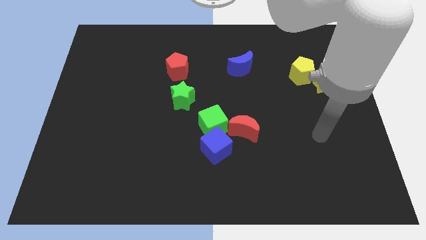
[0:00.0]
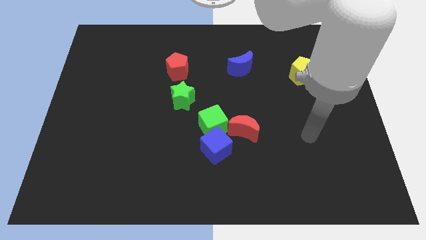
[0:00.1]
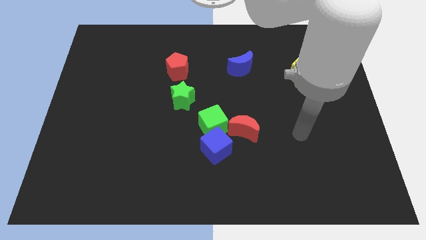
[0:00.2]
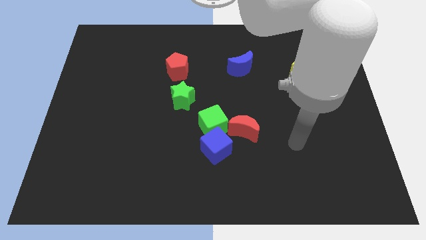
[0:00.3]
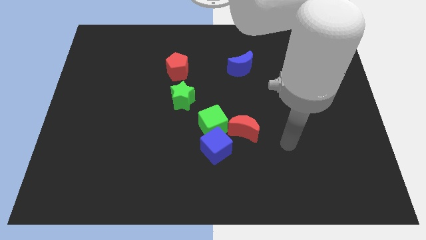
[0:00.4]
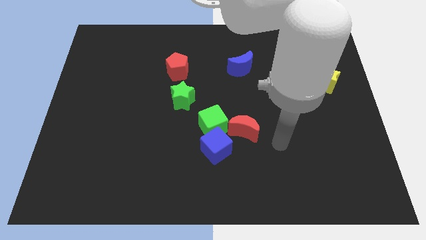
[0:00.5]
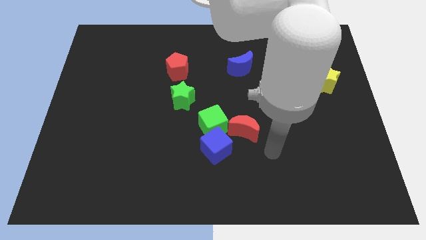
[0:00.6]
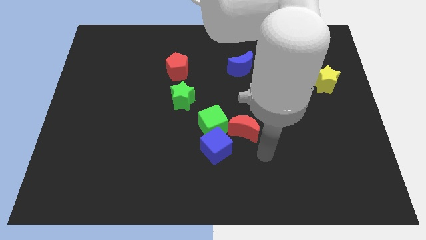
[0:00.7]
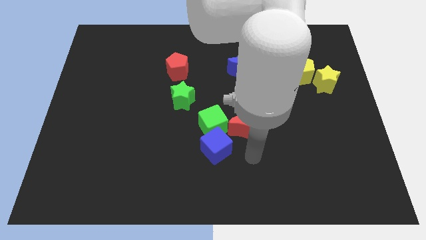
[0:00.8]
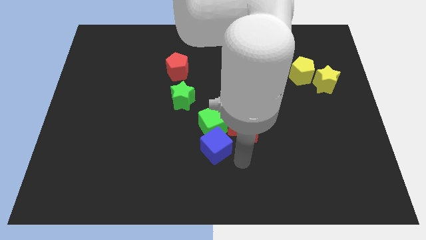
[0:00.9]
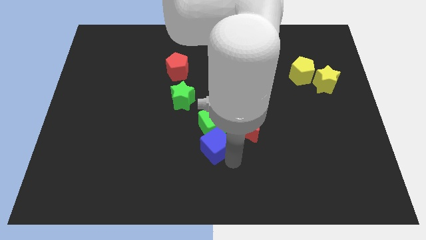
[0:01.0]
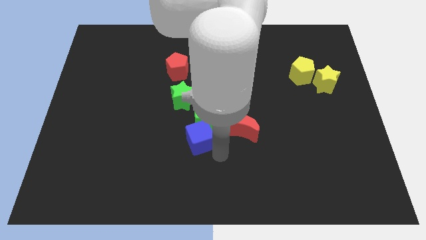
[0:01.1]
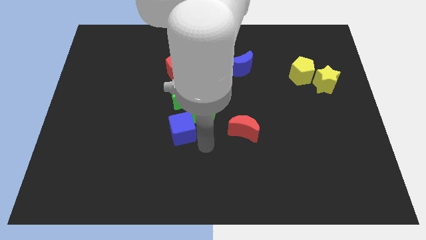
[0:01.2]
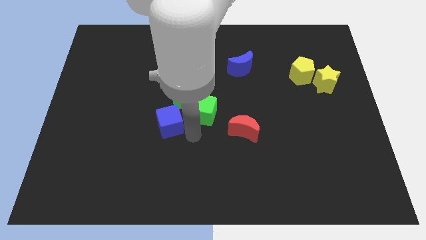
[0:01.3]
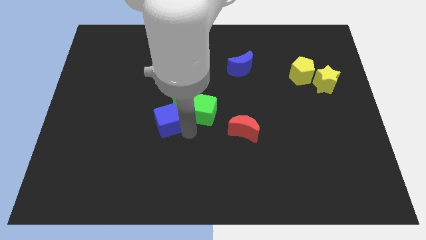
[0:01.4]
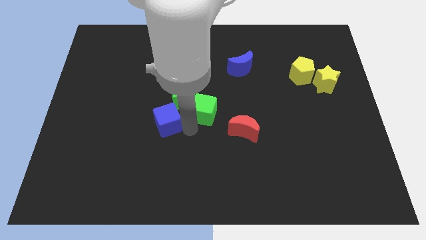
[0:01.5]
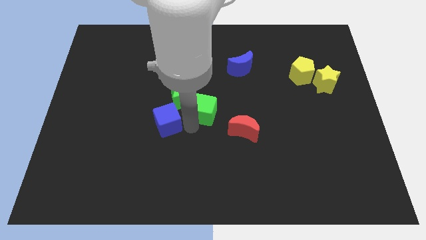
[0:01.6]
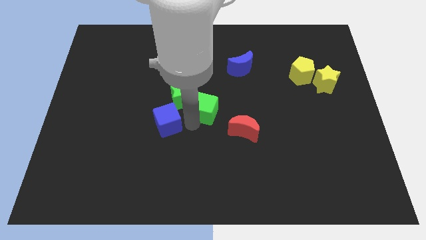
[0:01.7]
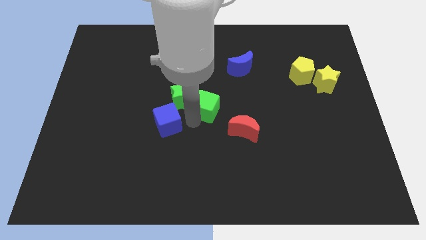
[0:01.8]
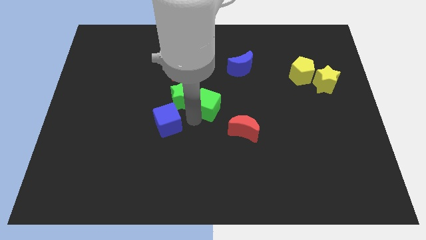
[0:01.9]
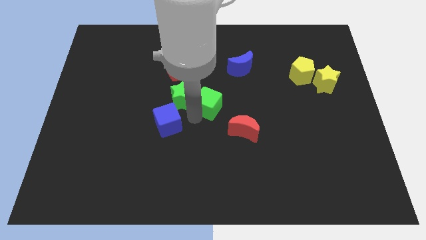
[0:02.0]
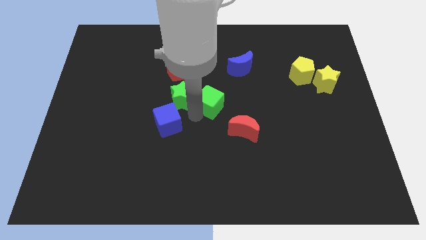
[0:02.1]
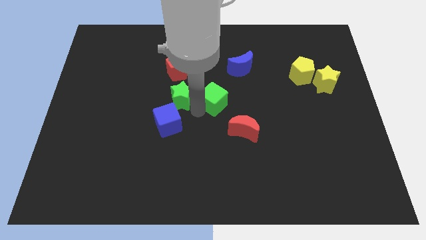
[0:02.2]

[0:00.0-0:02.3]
slightly move the green cube upwards

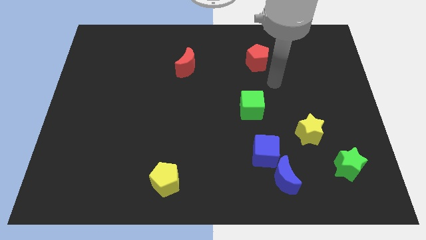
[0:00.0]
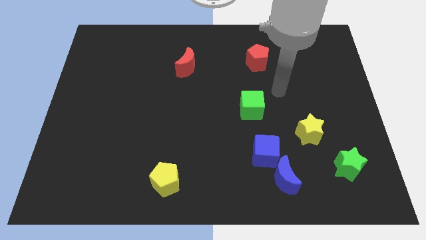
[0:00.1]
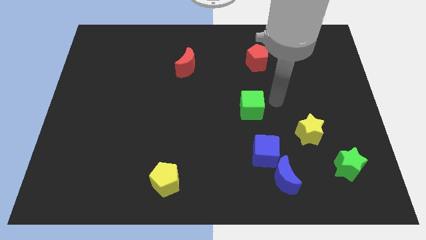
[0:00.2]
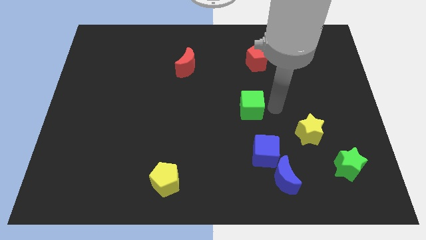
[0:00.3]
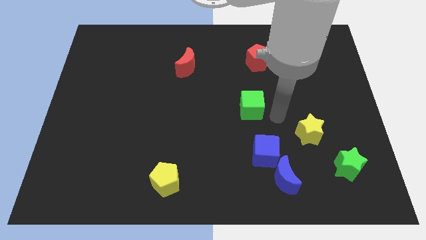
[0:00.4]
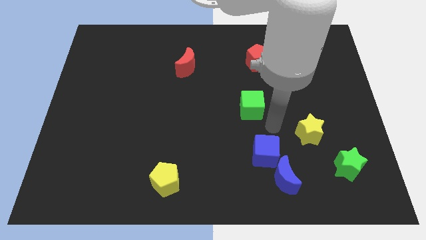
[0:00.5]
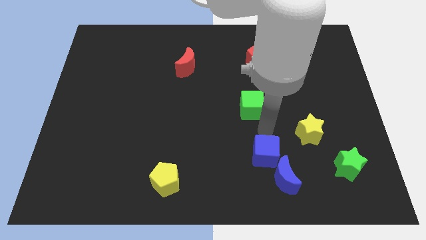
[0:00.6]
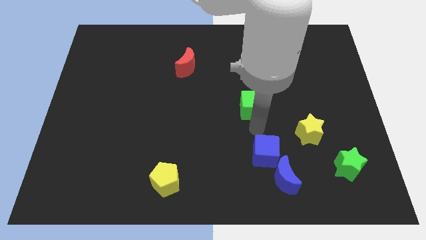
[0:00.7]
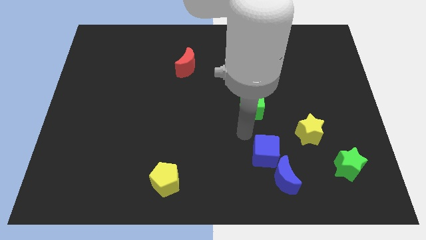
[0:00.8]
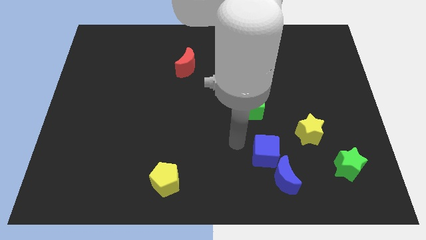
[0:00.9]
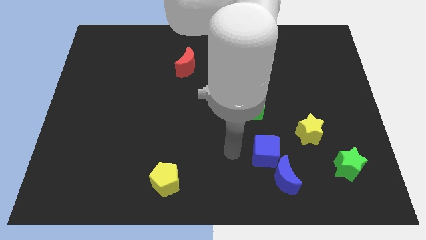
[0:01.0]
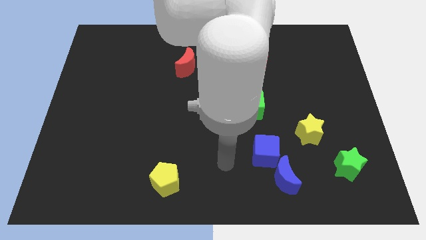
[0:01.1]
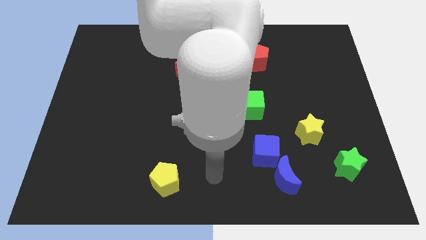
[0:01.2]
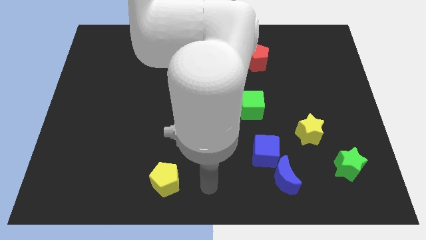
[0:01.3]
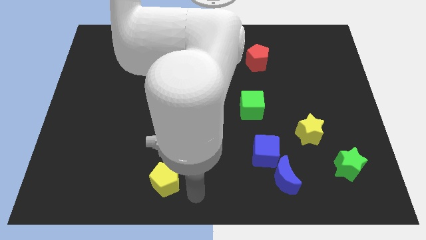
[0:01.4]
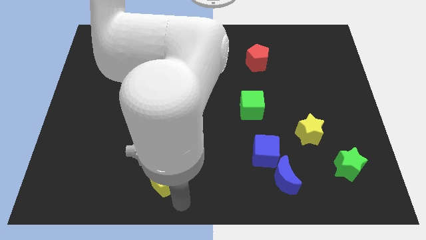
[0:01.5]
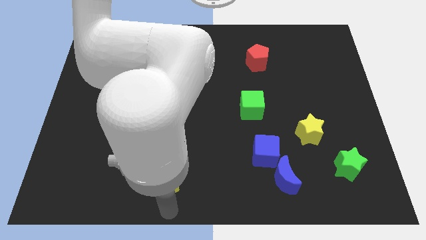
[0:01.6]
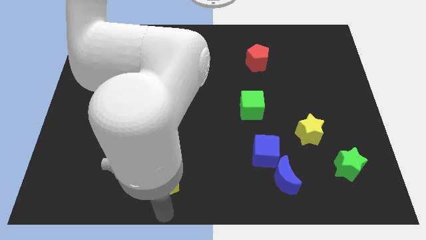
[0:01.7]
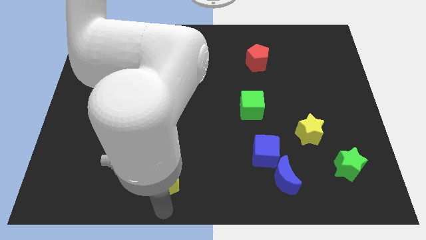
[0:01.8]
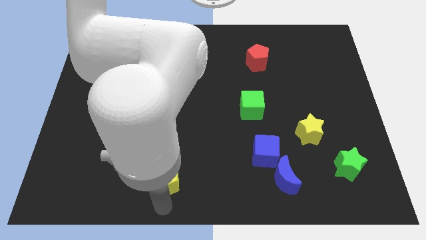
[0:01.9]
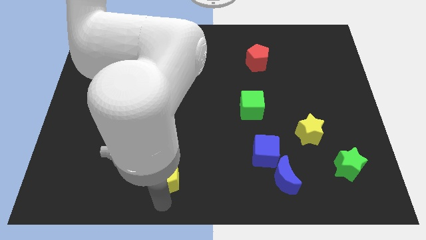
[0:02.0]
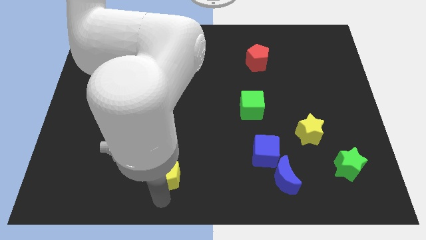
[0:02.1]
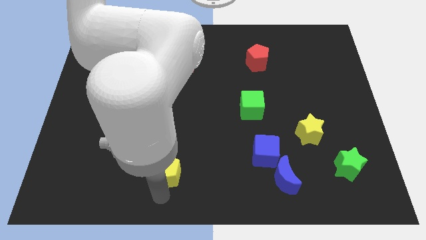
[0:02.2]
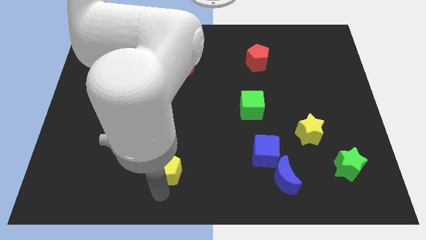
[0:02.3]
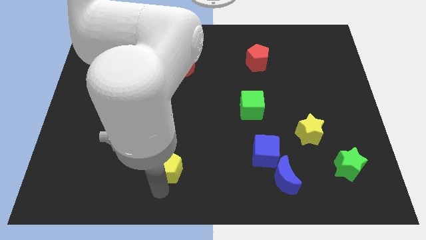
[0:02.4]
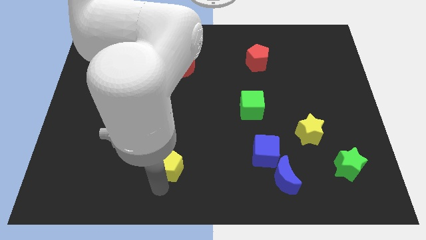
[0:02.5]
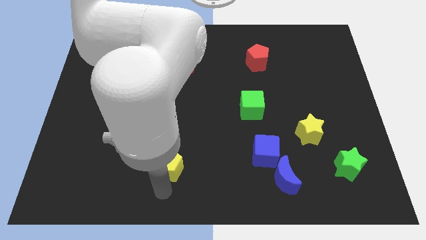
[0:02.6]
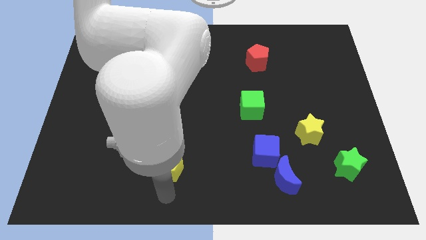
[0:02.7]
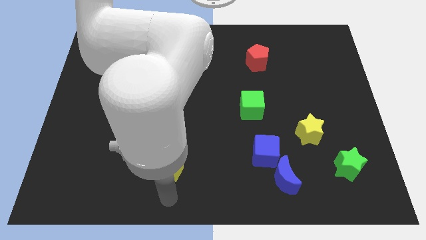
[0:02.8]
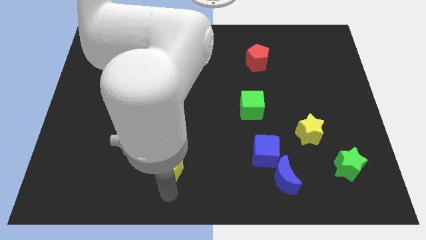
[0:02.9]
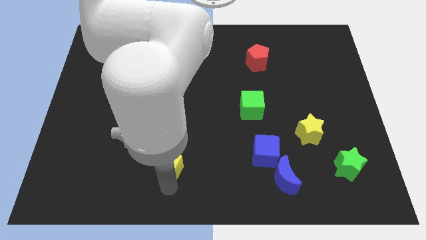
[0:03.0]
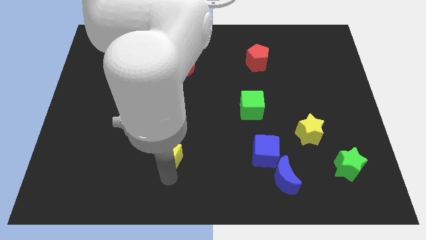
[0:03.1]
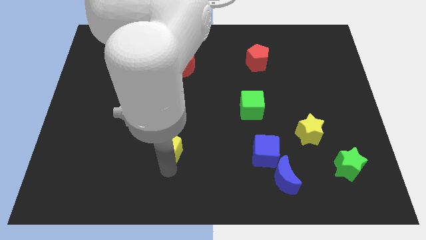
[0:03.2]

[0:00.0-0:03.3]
move the yellow pentagon upwards a bit

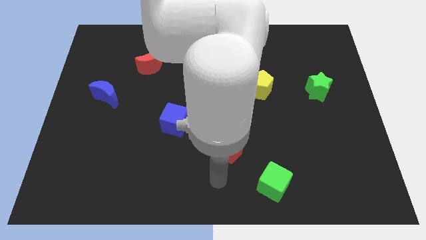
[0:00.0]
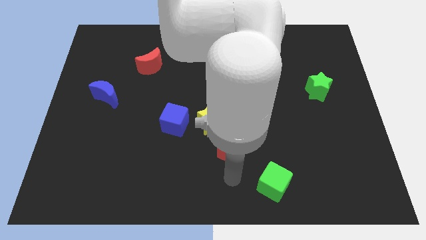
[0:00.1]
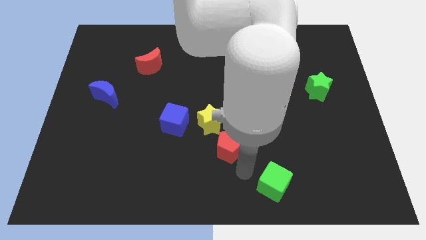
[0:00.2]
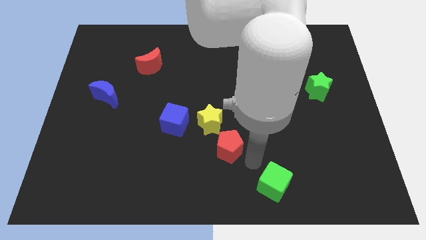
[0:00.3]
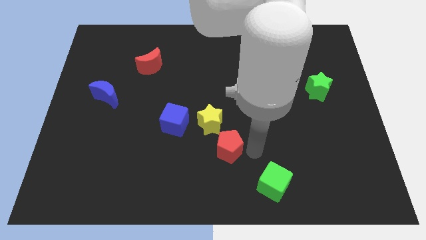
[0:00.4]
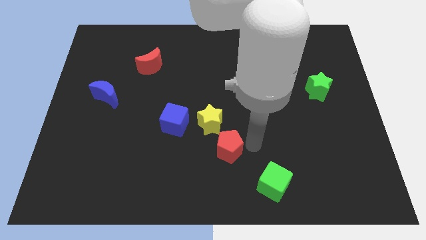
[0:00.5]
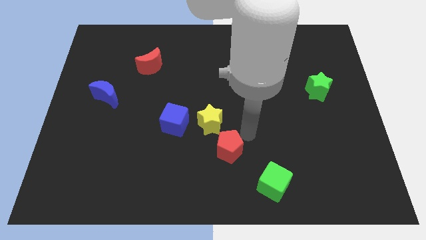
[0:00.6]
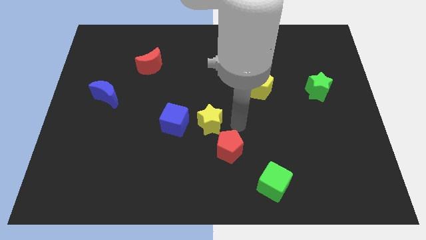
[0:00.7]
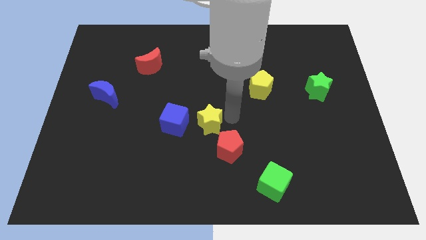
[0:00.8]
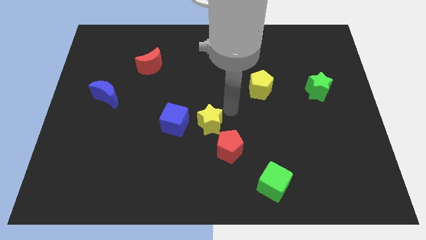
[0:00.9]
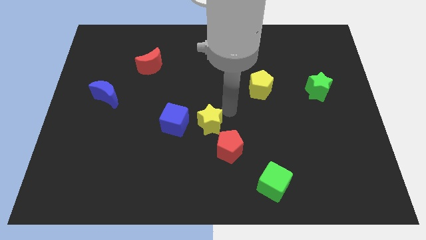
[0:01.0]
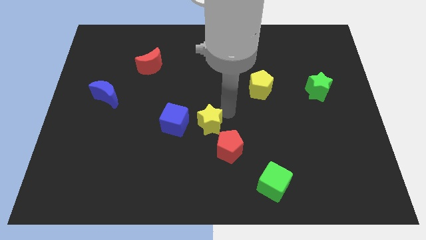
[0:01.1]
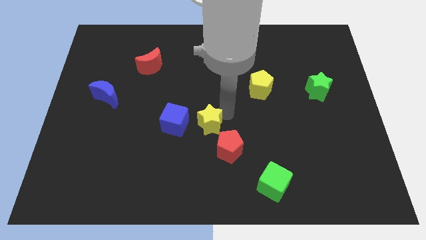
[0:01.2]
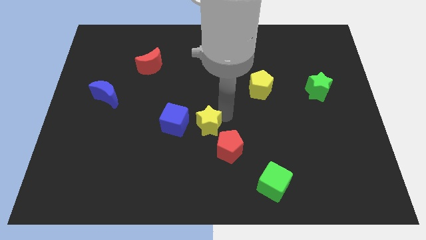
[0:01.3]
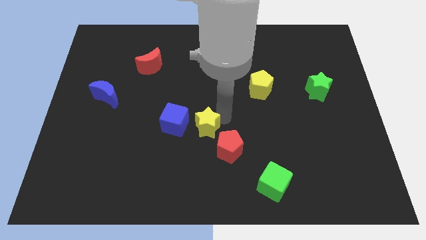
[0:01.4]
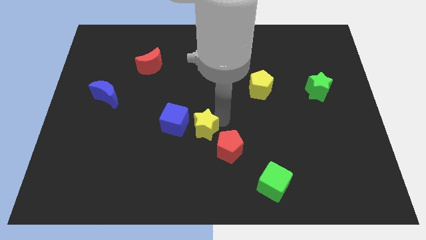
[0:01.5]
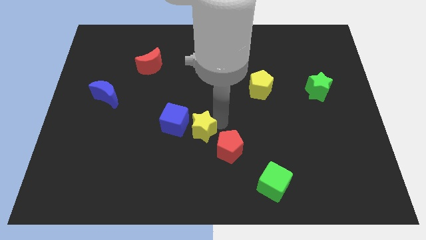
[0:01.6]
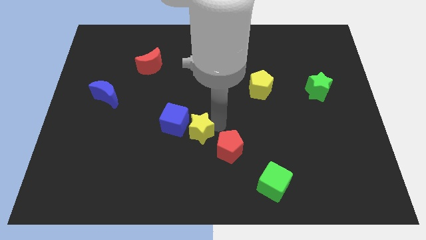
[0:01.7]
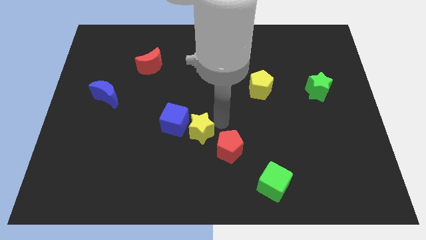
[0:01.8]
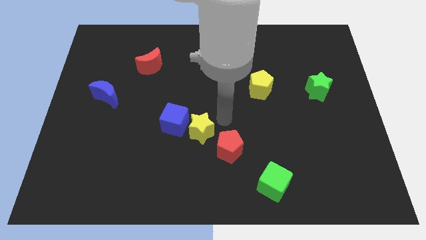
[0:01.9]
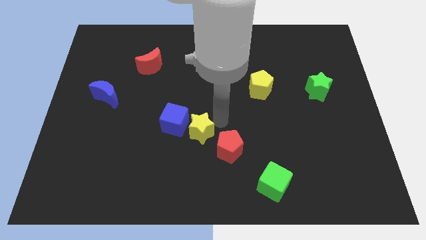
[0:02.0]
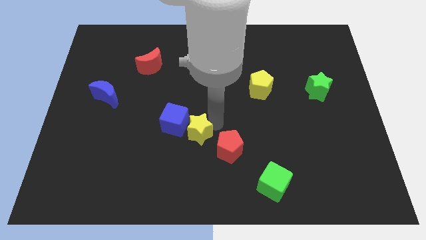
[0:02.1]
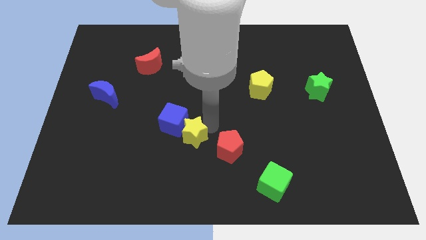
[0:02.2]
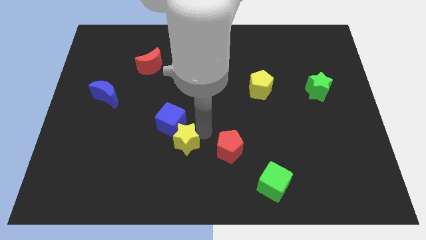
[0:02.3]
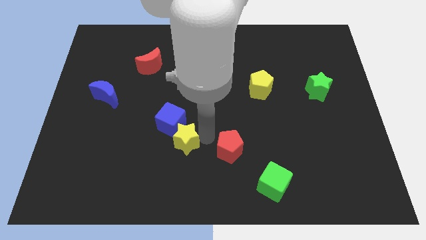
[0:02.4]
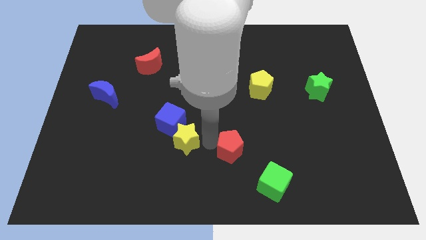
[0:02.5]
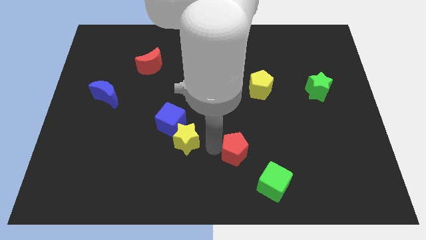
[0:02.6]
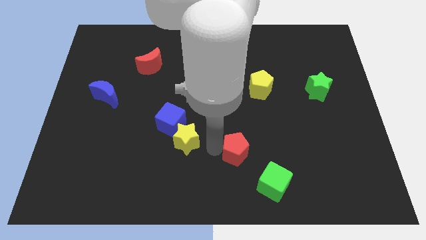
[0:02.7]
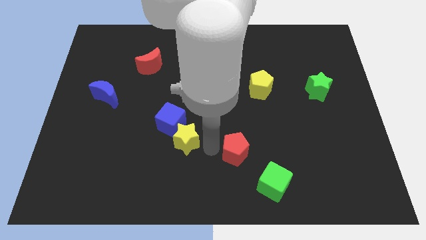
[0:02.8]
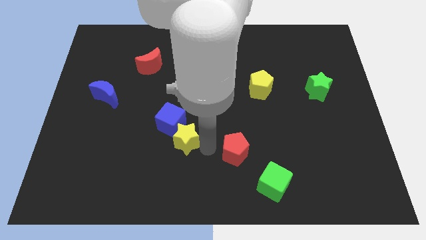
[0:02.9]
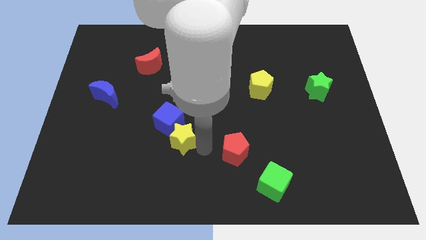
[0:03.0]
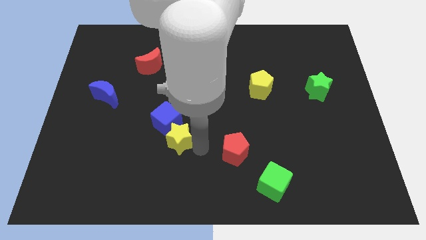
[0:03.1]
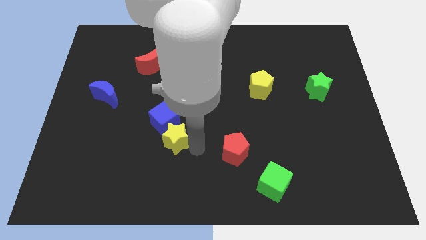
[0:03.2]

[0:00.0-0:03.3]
slightly move the yellow star left
